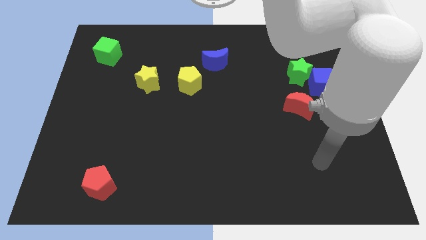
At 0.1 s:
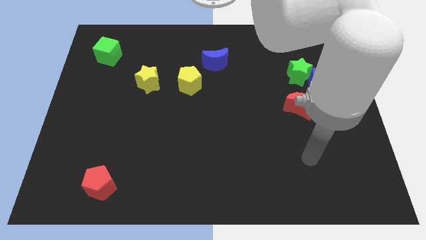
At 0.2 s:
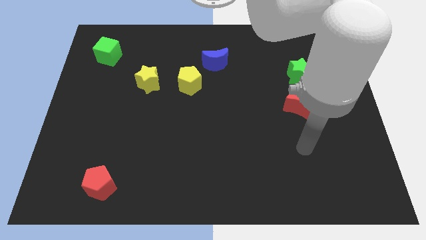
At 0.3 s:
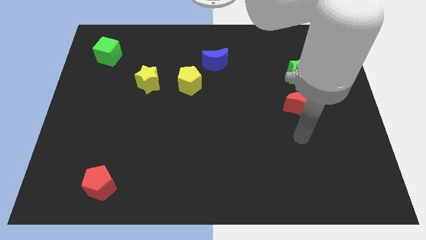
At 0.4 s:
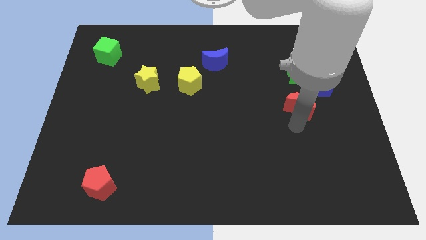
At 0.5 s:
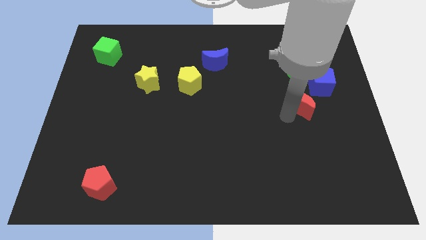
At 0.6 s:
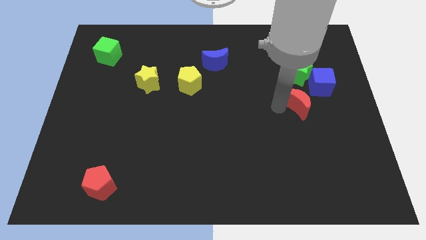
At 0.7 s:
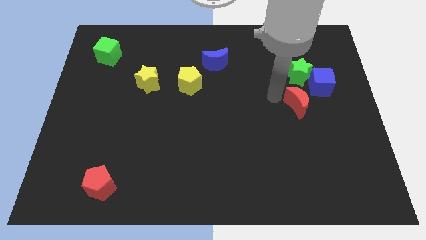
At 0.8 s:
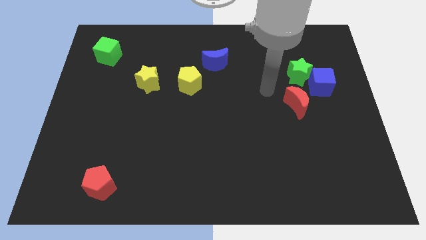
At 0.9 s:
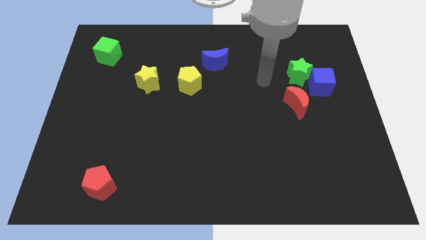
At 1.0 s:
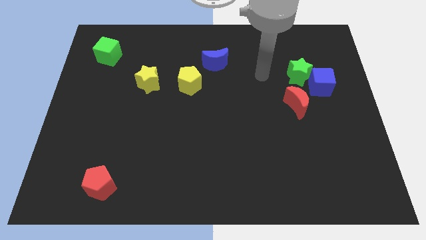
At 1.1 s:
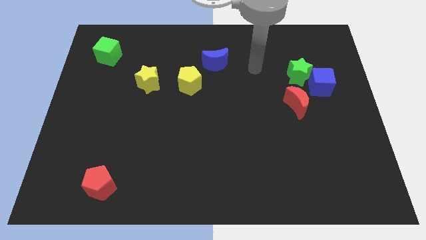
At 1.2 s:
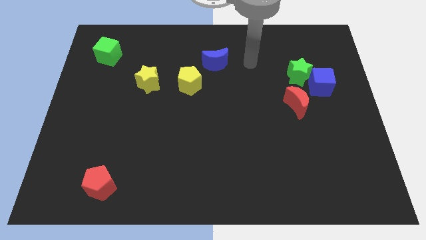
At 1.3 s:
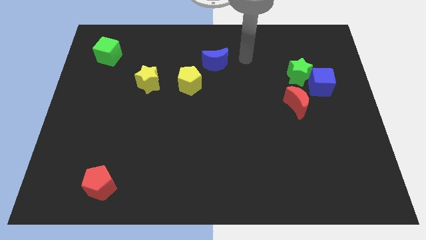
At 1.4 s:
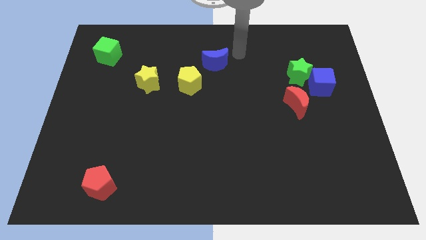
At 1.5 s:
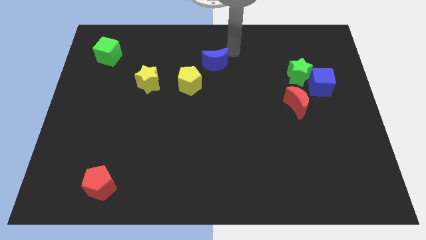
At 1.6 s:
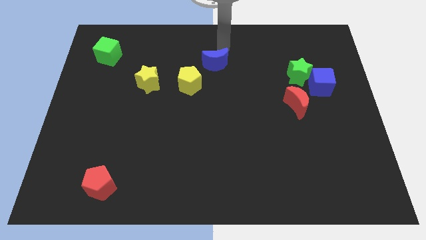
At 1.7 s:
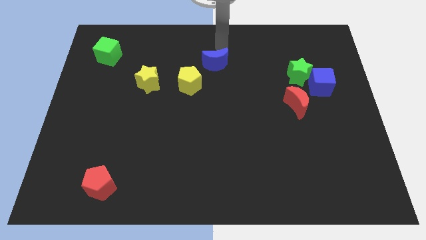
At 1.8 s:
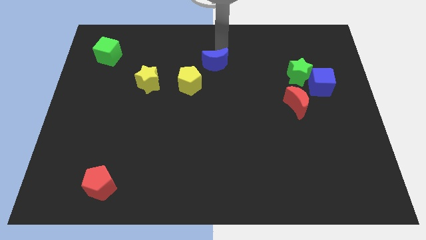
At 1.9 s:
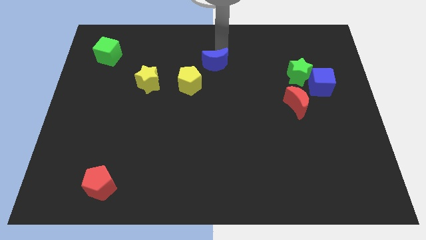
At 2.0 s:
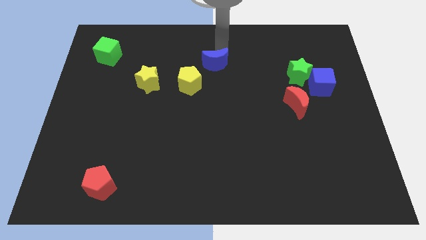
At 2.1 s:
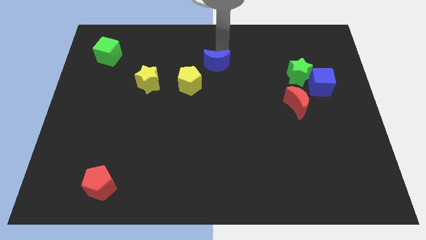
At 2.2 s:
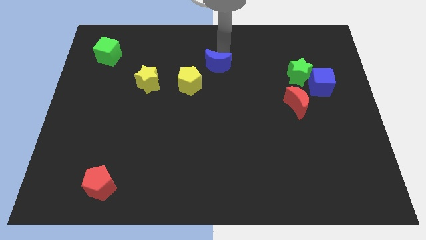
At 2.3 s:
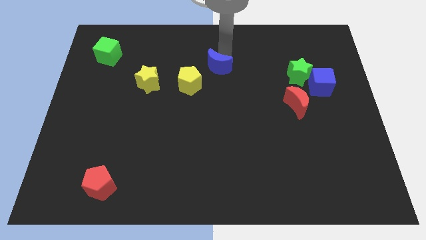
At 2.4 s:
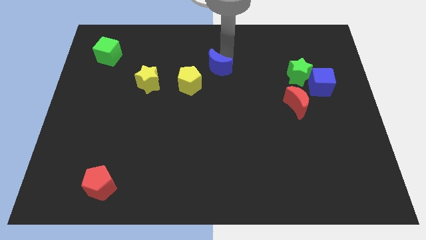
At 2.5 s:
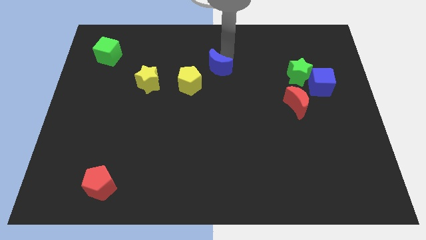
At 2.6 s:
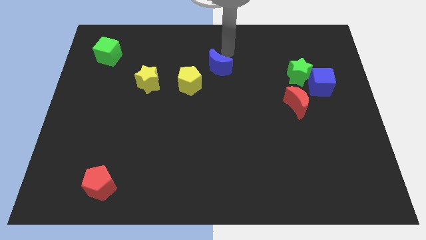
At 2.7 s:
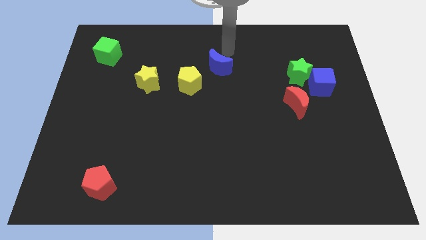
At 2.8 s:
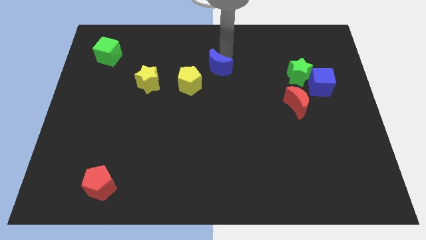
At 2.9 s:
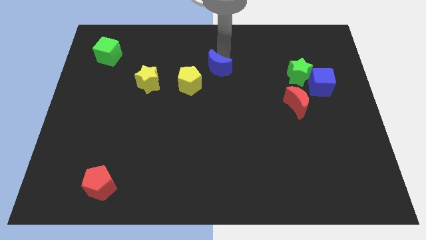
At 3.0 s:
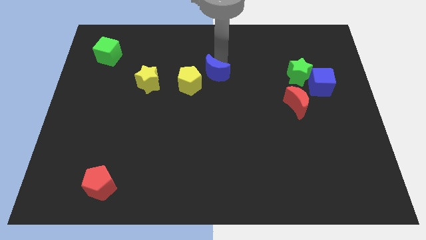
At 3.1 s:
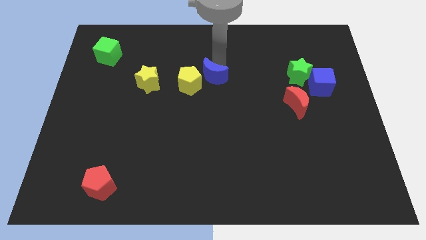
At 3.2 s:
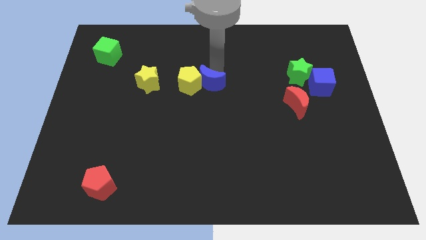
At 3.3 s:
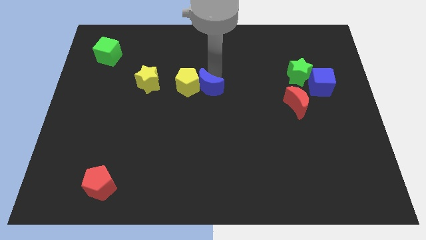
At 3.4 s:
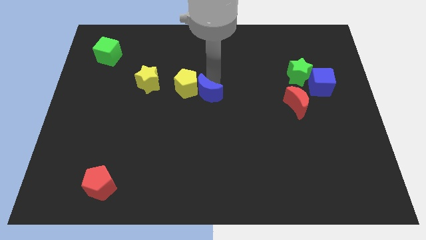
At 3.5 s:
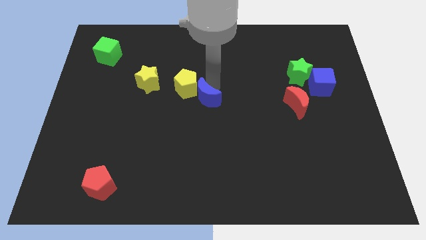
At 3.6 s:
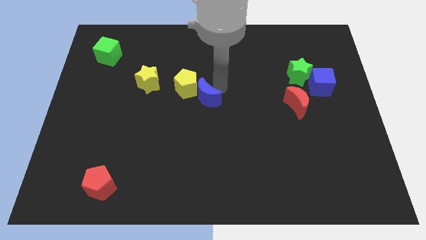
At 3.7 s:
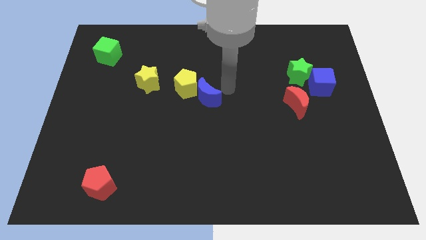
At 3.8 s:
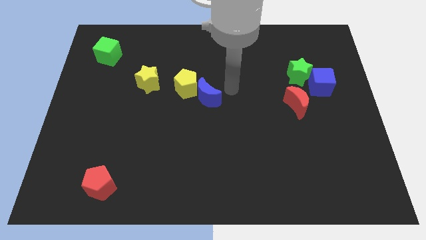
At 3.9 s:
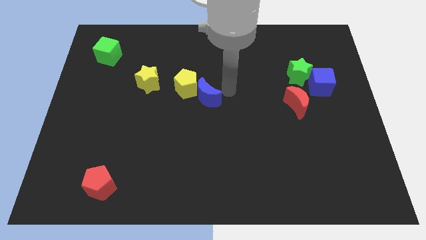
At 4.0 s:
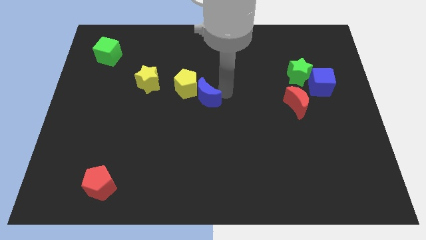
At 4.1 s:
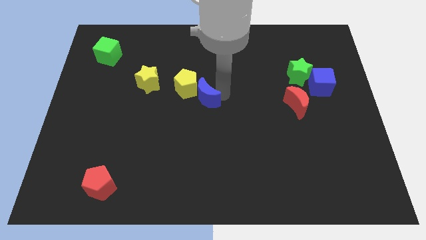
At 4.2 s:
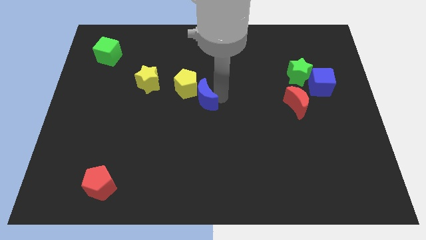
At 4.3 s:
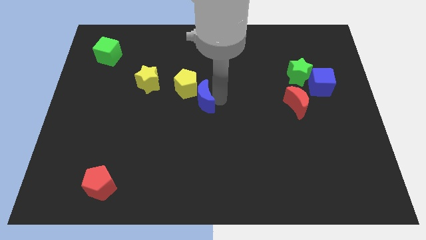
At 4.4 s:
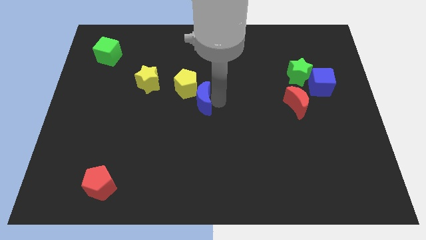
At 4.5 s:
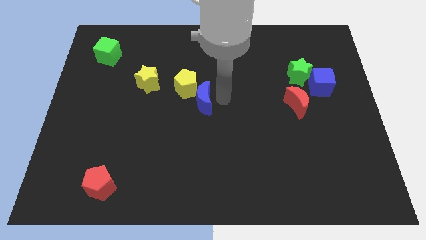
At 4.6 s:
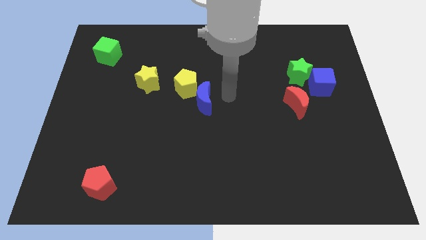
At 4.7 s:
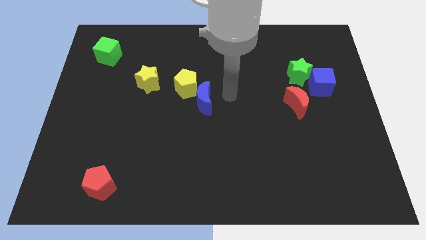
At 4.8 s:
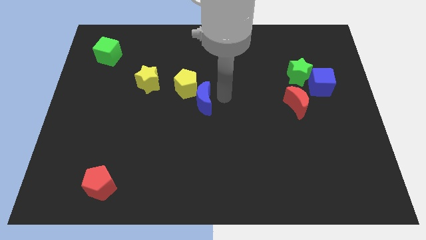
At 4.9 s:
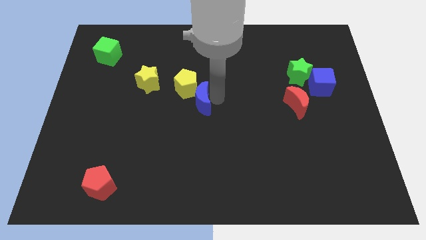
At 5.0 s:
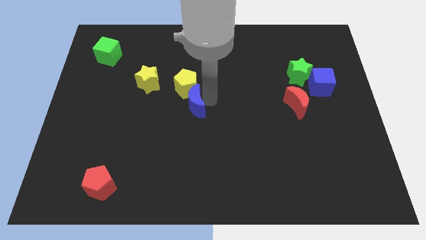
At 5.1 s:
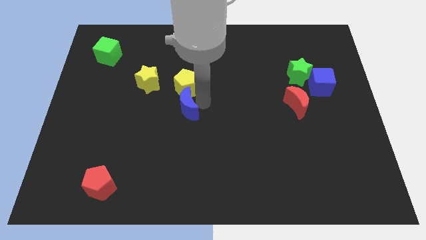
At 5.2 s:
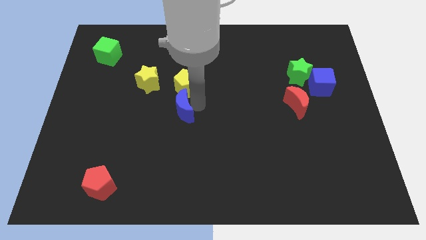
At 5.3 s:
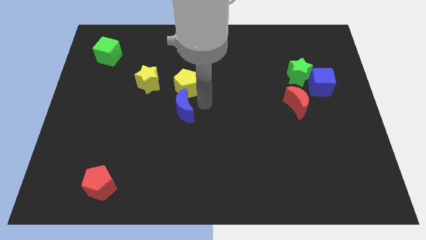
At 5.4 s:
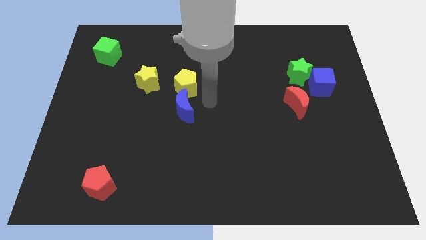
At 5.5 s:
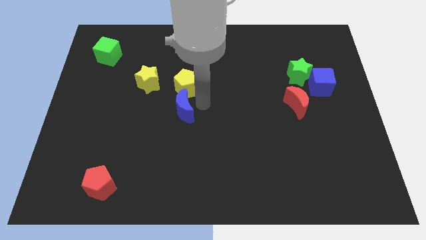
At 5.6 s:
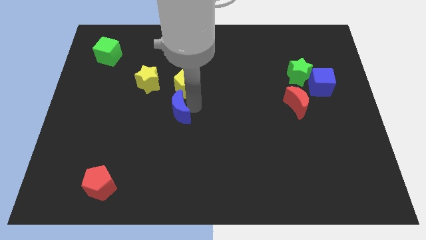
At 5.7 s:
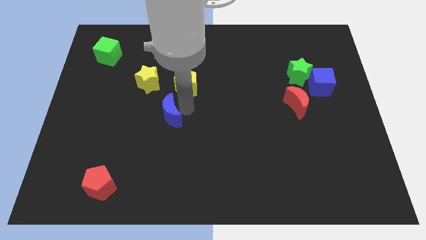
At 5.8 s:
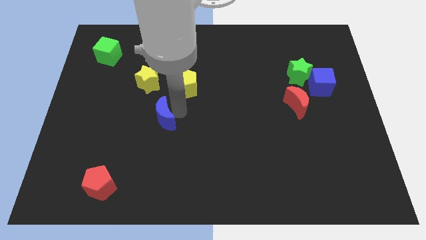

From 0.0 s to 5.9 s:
slide the blue moon down and left diagonally

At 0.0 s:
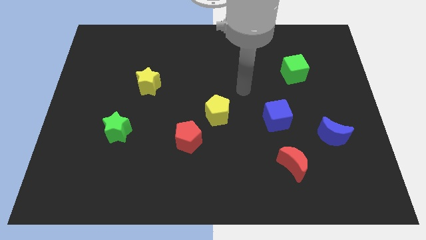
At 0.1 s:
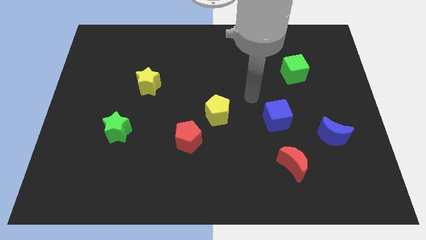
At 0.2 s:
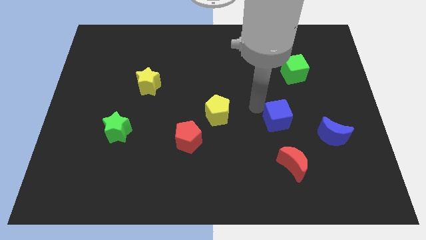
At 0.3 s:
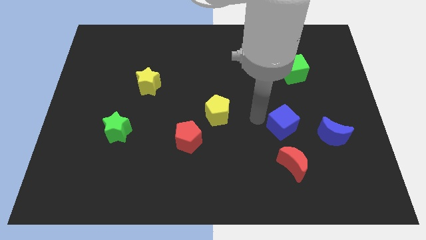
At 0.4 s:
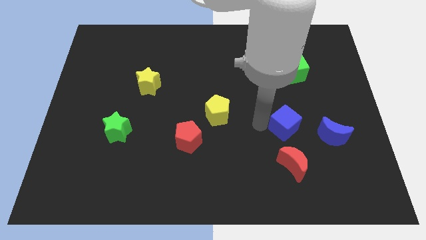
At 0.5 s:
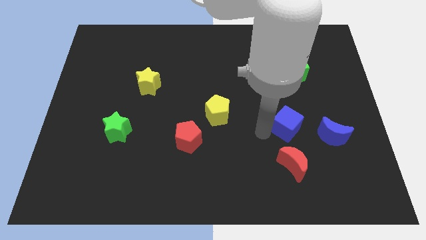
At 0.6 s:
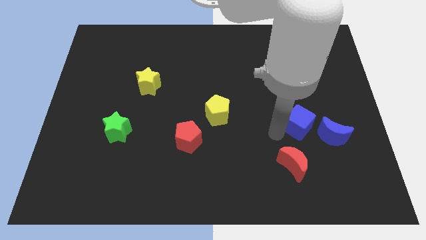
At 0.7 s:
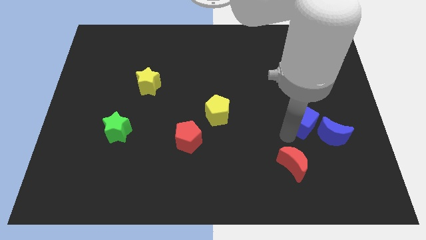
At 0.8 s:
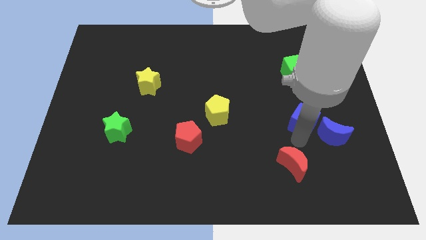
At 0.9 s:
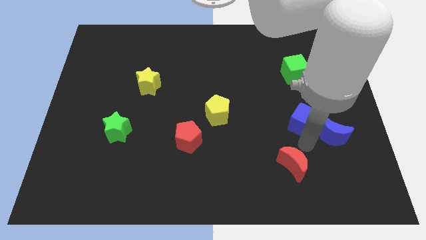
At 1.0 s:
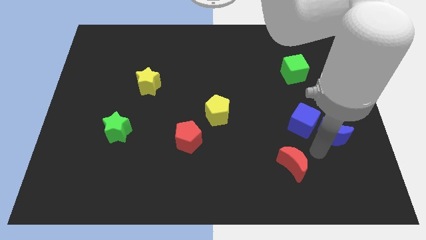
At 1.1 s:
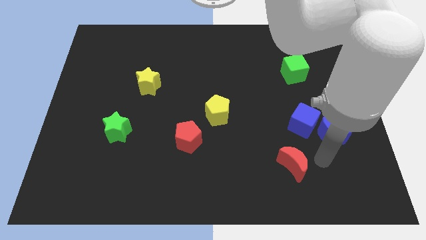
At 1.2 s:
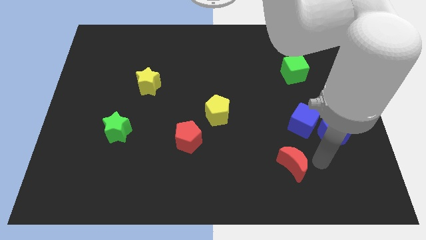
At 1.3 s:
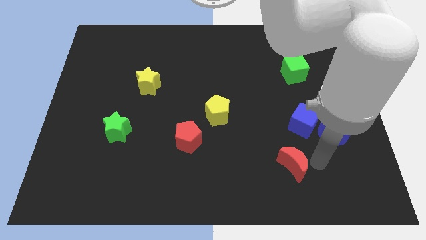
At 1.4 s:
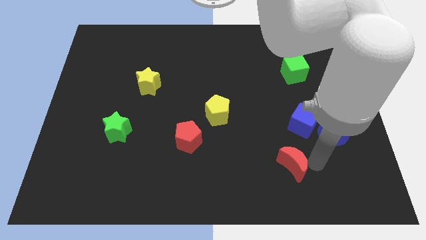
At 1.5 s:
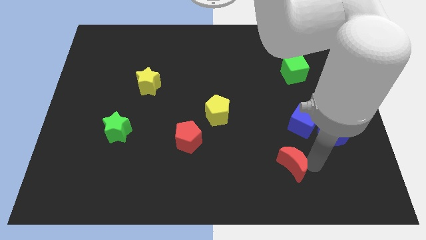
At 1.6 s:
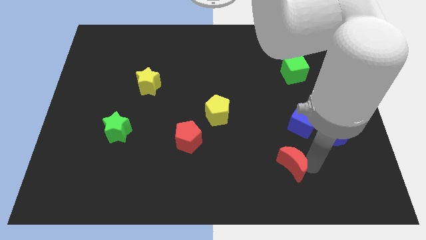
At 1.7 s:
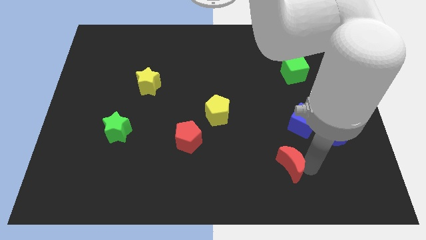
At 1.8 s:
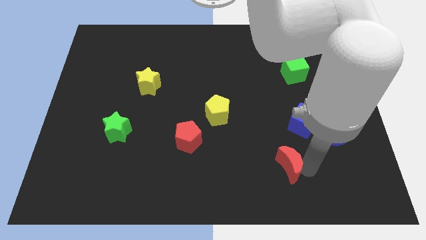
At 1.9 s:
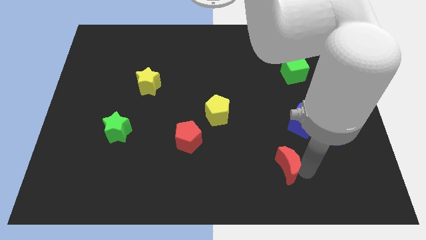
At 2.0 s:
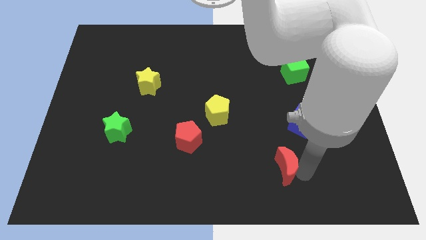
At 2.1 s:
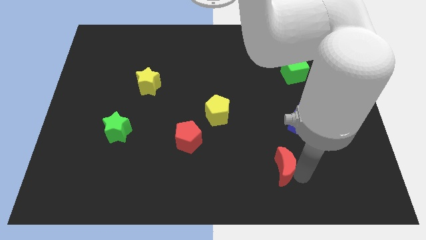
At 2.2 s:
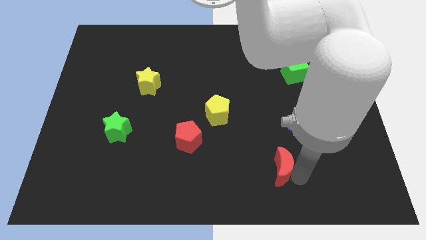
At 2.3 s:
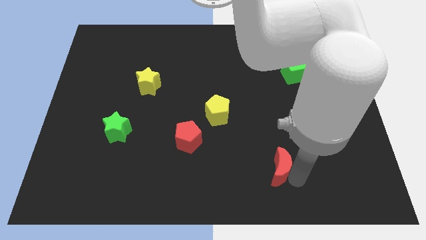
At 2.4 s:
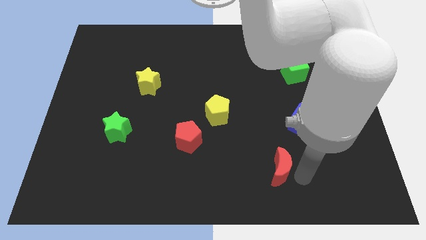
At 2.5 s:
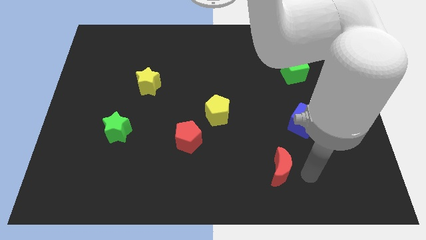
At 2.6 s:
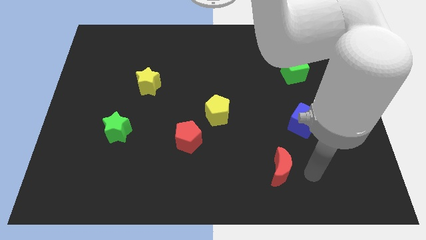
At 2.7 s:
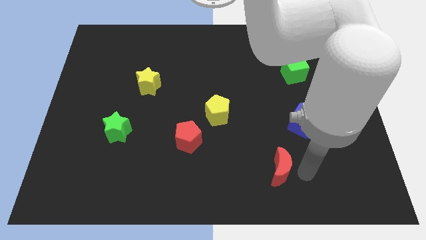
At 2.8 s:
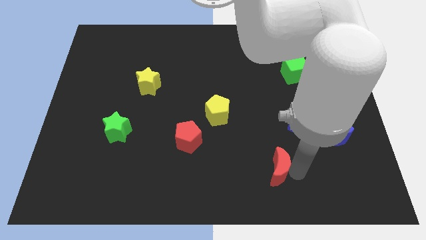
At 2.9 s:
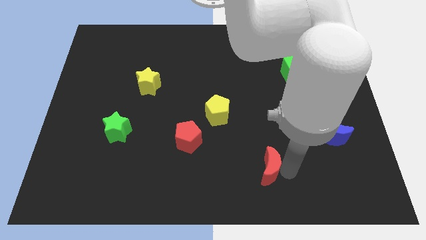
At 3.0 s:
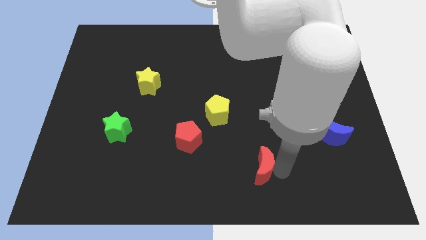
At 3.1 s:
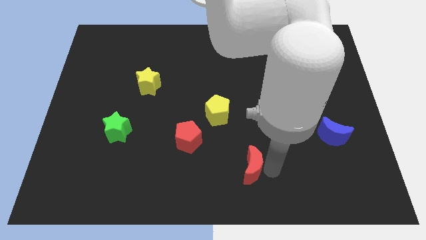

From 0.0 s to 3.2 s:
slide the red moon a little left
